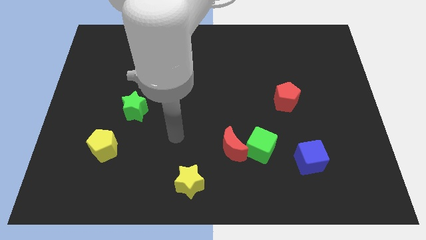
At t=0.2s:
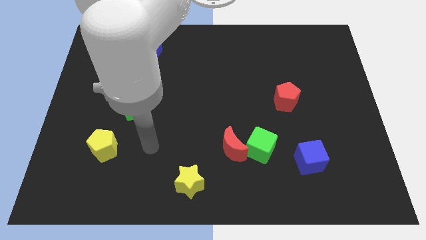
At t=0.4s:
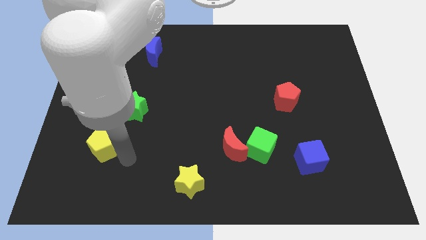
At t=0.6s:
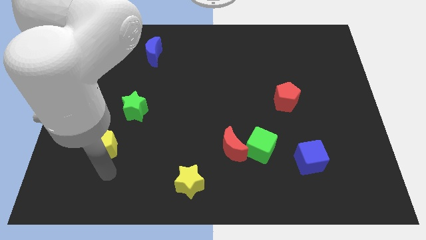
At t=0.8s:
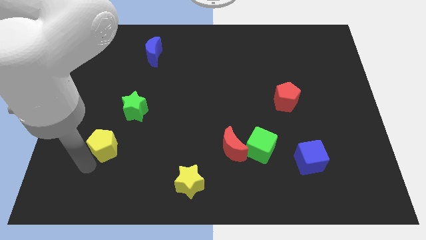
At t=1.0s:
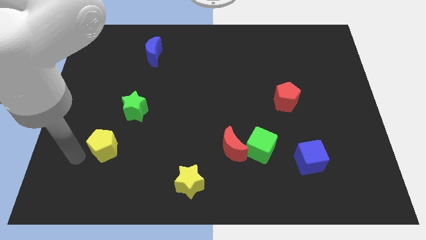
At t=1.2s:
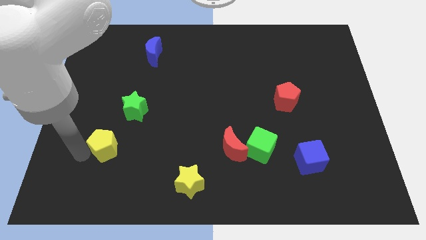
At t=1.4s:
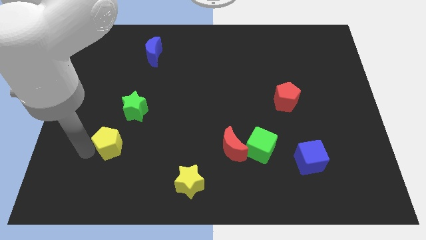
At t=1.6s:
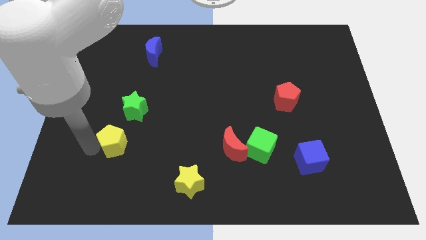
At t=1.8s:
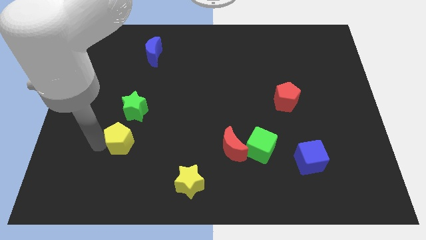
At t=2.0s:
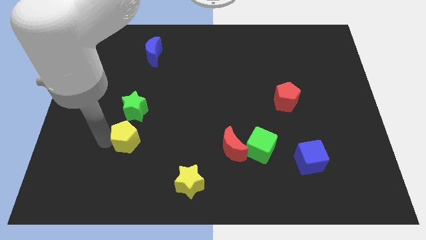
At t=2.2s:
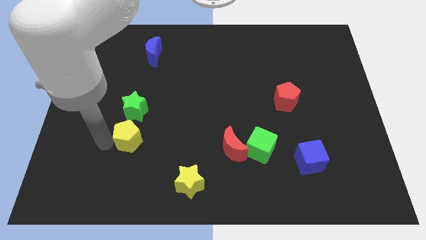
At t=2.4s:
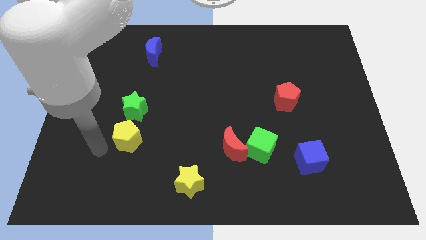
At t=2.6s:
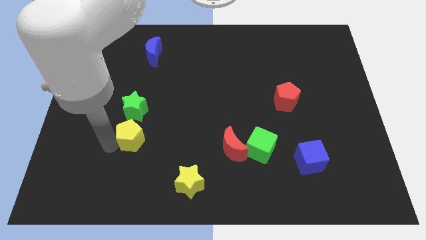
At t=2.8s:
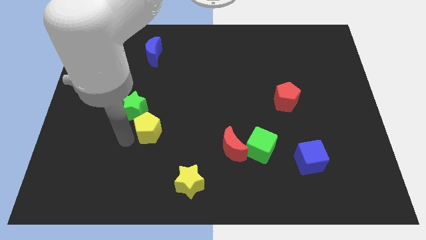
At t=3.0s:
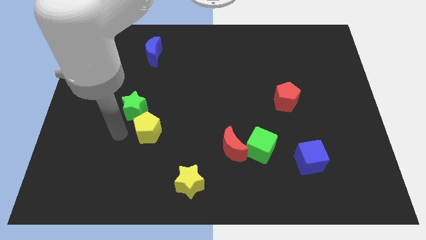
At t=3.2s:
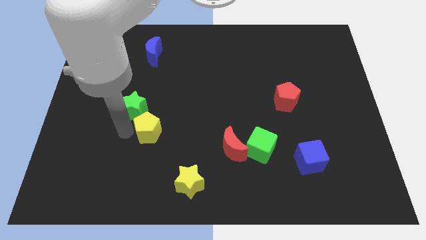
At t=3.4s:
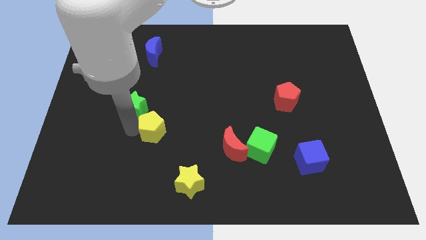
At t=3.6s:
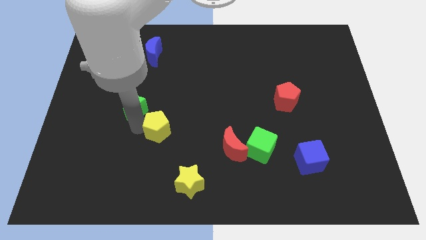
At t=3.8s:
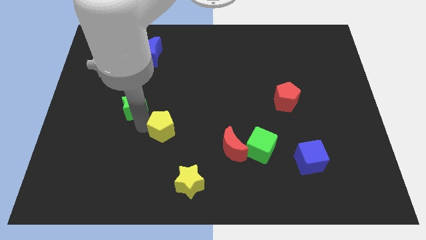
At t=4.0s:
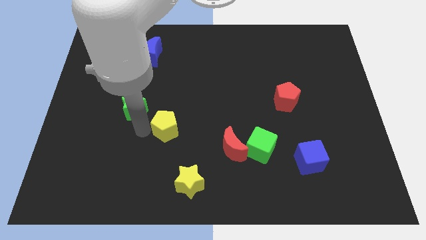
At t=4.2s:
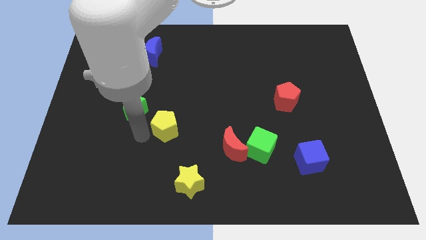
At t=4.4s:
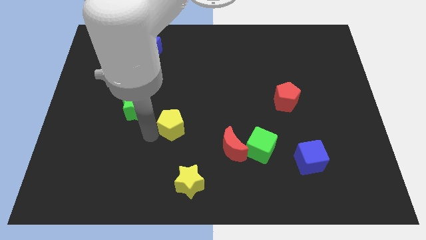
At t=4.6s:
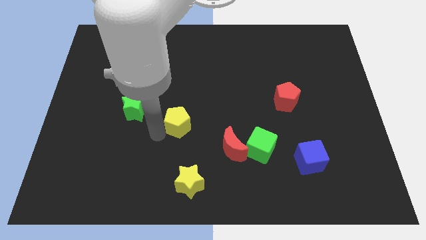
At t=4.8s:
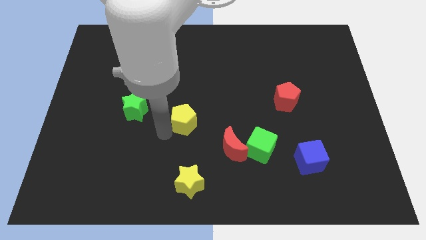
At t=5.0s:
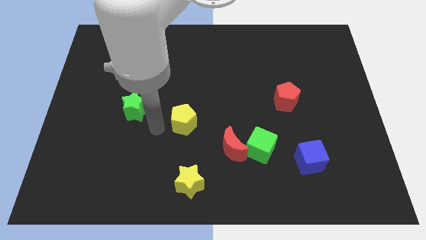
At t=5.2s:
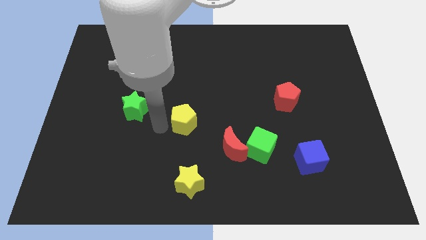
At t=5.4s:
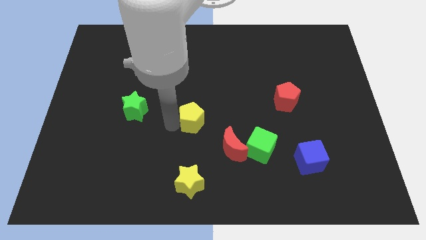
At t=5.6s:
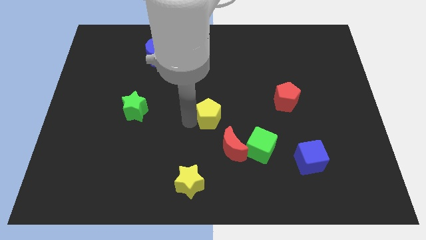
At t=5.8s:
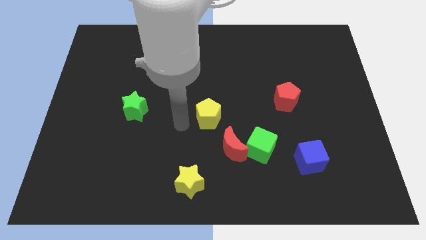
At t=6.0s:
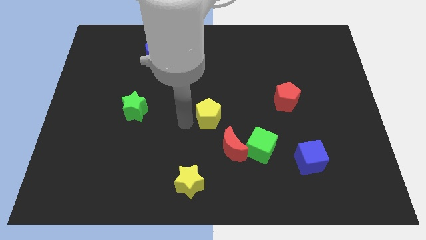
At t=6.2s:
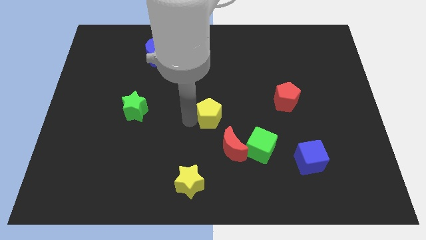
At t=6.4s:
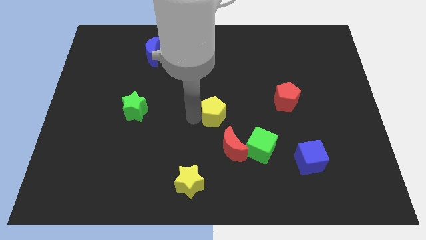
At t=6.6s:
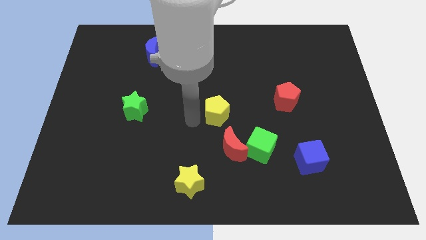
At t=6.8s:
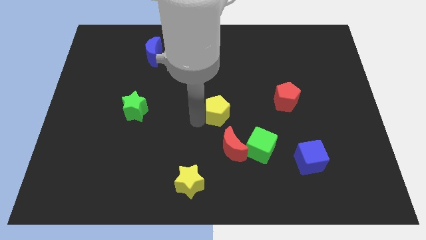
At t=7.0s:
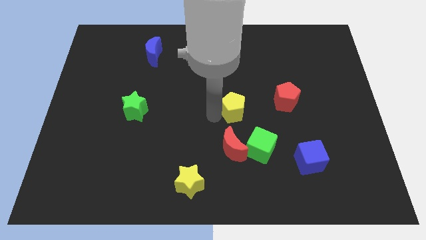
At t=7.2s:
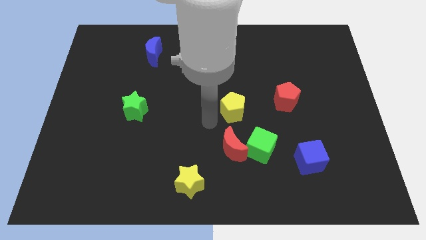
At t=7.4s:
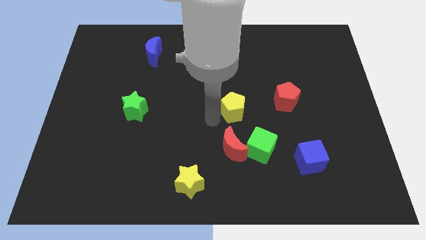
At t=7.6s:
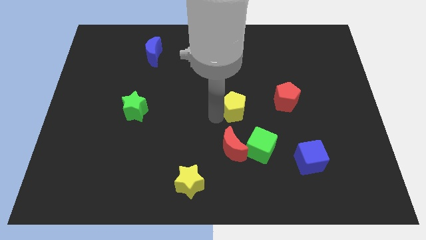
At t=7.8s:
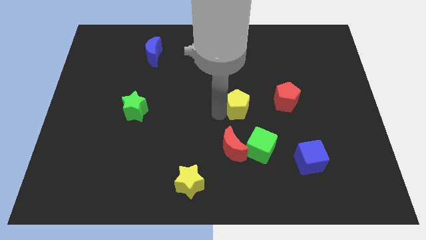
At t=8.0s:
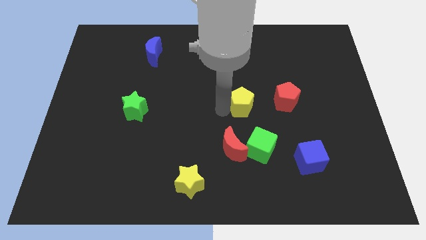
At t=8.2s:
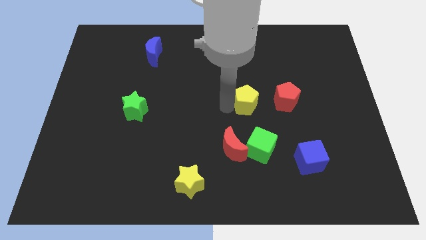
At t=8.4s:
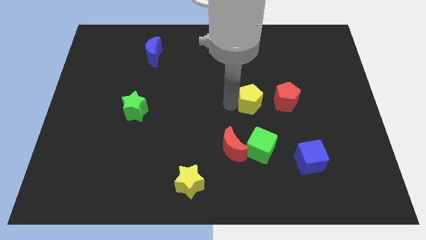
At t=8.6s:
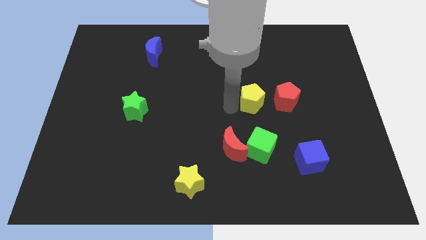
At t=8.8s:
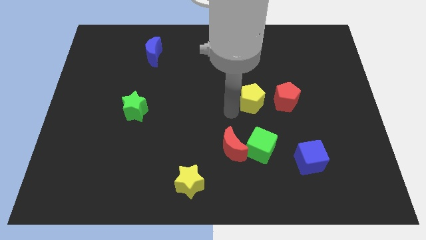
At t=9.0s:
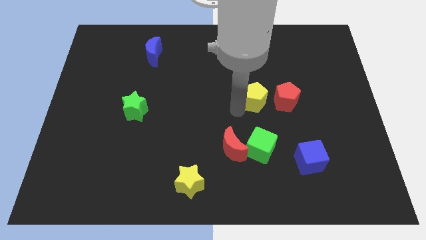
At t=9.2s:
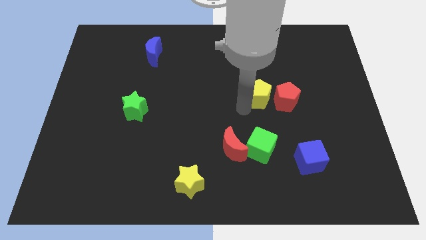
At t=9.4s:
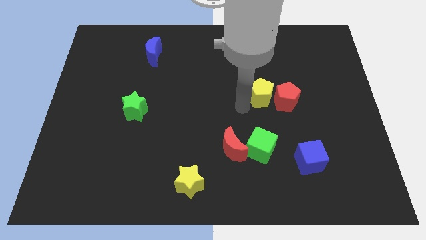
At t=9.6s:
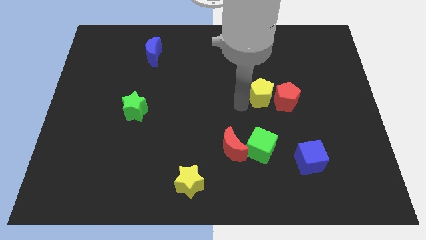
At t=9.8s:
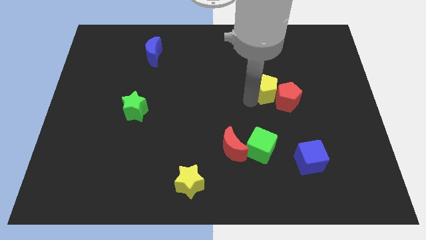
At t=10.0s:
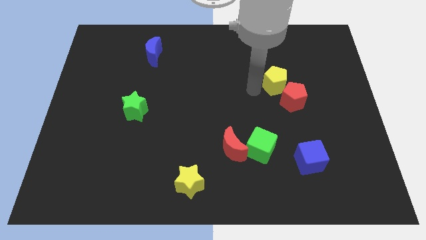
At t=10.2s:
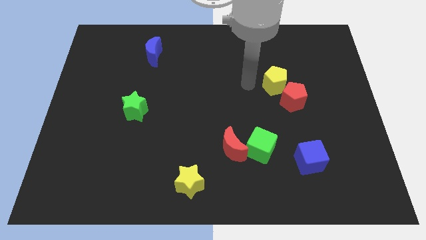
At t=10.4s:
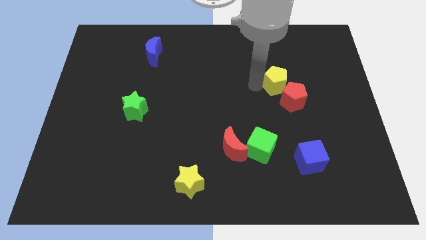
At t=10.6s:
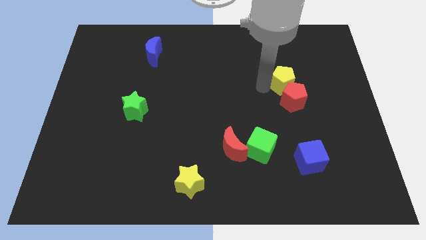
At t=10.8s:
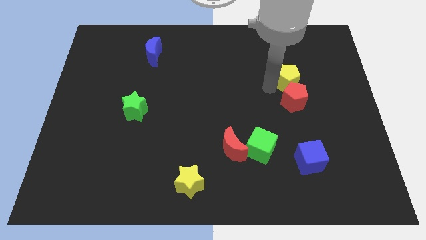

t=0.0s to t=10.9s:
push the yellow pentagon to the top right of the red pentagon

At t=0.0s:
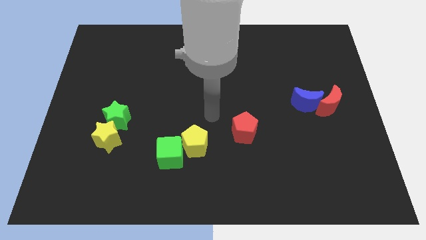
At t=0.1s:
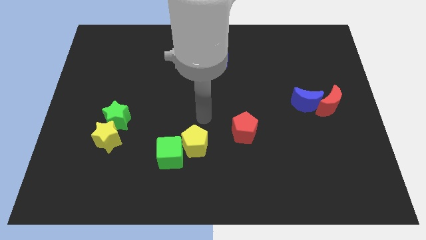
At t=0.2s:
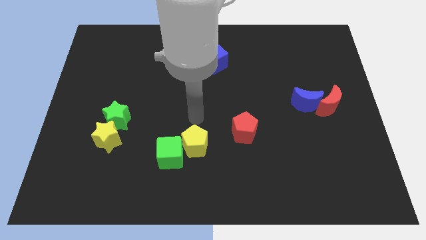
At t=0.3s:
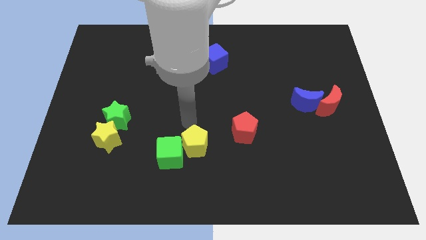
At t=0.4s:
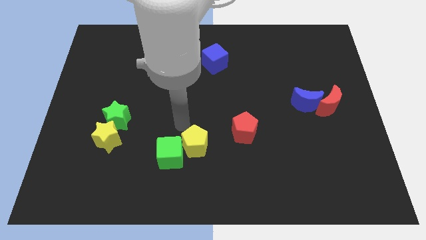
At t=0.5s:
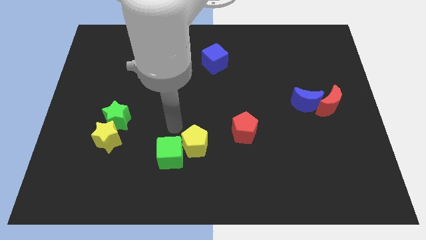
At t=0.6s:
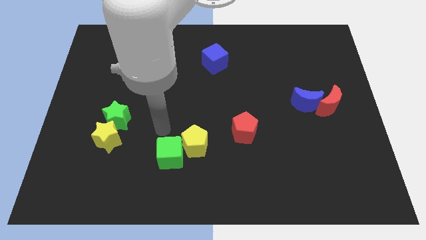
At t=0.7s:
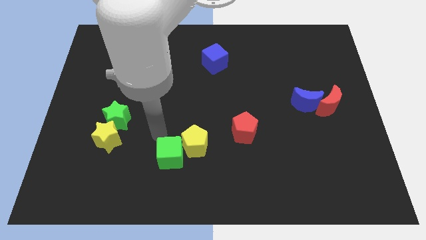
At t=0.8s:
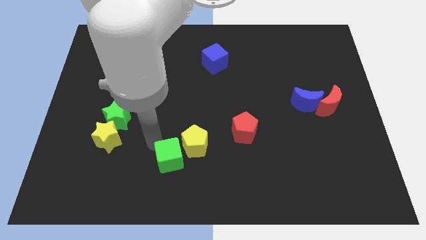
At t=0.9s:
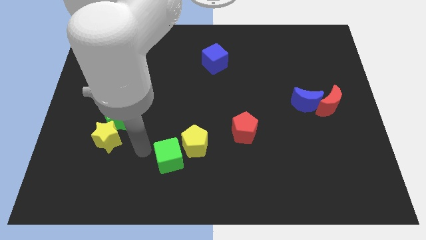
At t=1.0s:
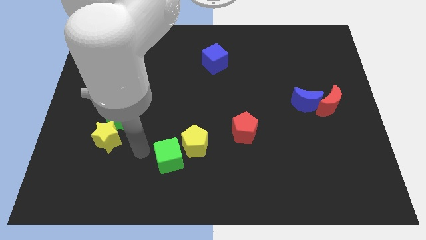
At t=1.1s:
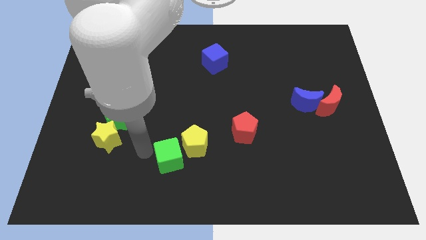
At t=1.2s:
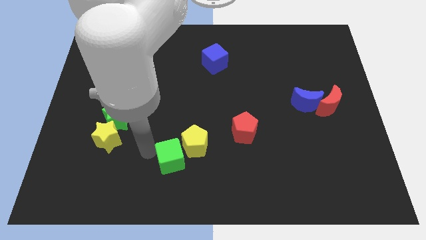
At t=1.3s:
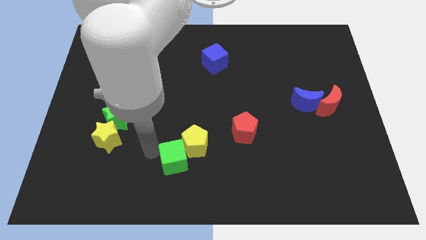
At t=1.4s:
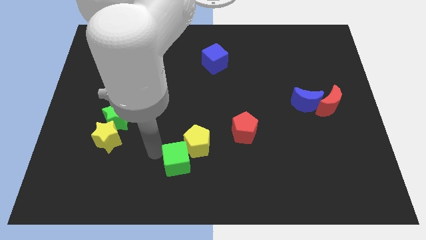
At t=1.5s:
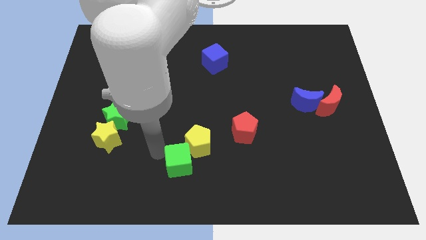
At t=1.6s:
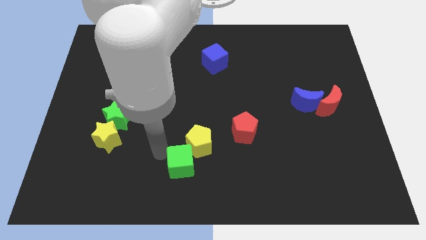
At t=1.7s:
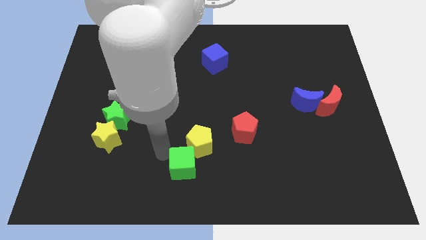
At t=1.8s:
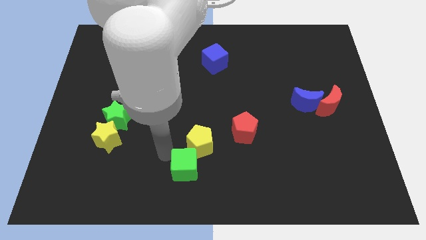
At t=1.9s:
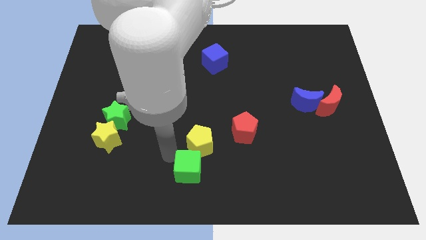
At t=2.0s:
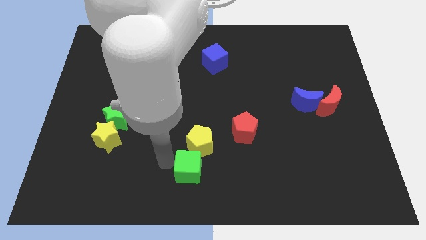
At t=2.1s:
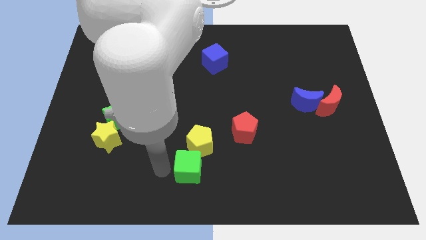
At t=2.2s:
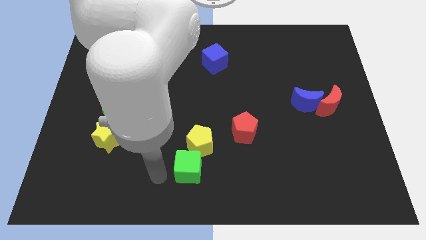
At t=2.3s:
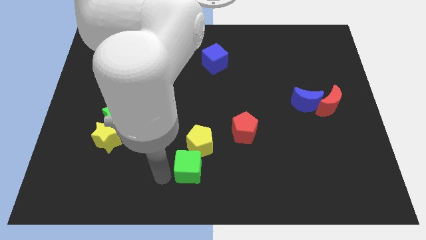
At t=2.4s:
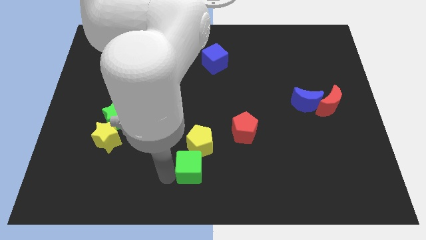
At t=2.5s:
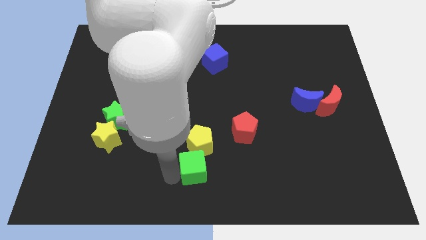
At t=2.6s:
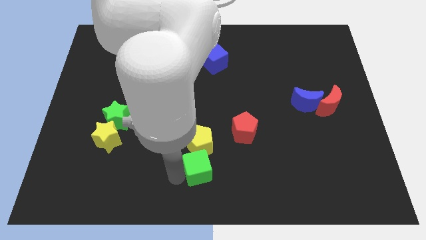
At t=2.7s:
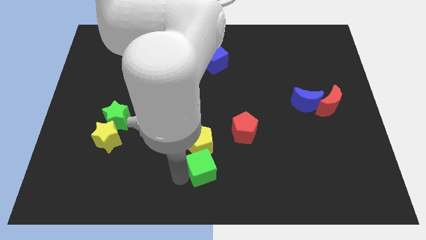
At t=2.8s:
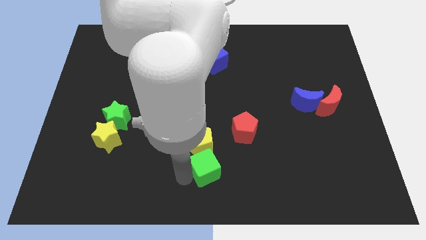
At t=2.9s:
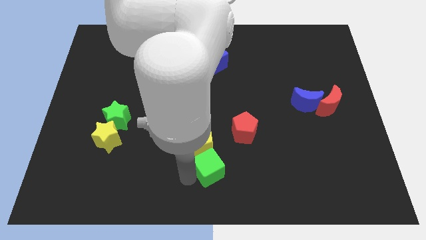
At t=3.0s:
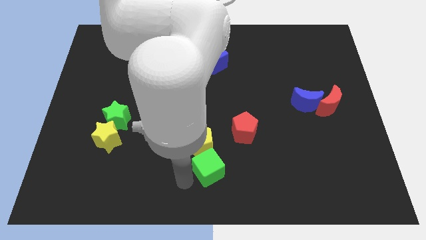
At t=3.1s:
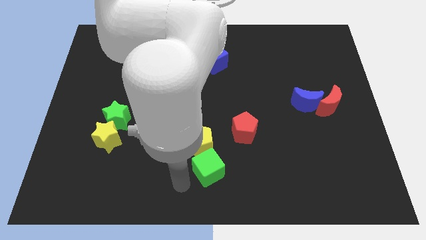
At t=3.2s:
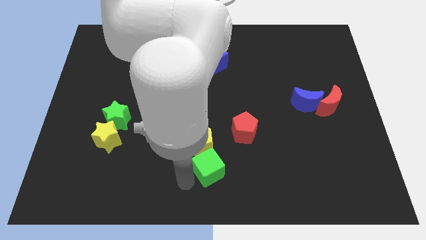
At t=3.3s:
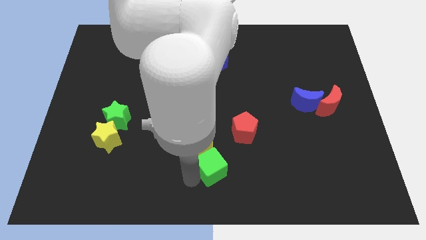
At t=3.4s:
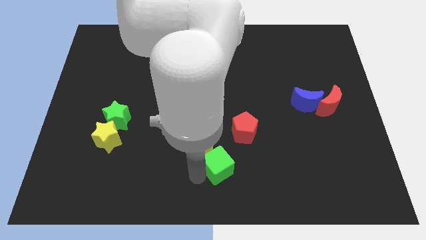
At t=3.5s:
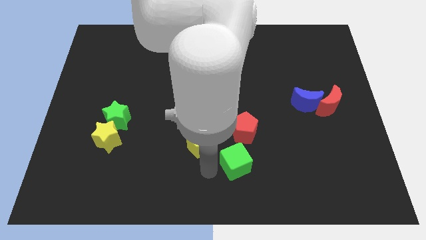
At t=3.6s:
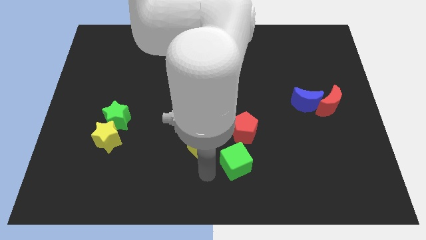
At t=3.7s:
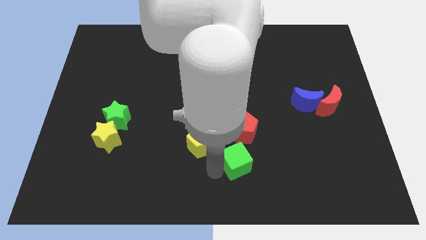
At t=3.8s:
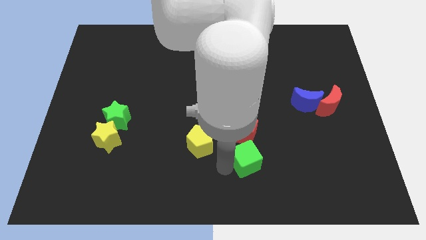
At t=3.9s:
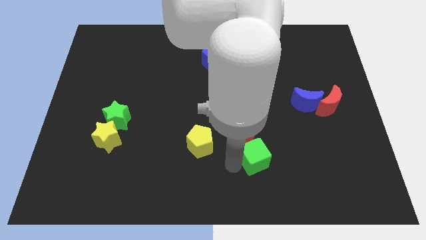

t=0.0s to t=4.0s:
move the green cube to the bottom right of the red pentagon
